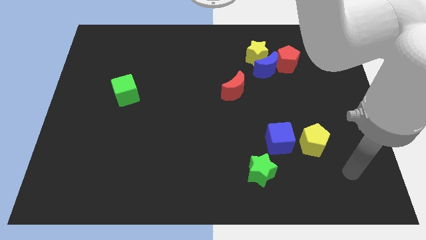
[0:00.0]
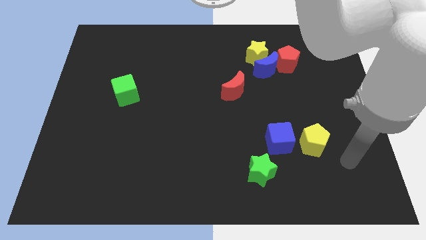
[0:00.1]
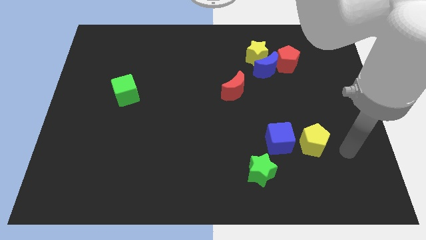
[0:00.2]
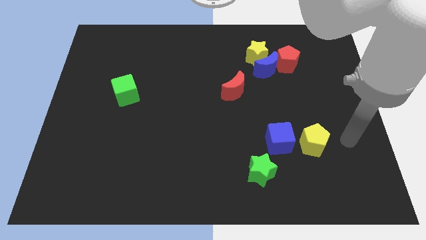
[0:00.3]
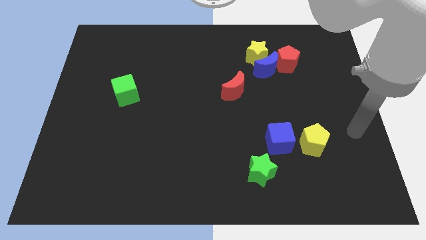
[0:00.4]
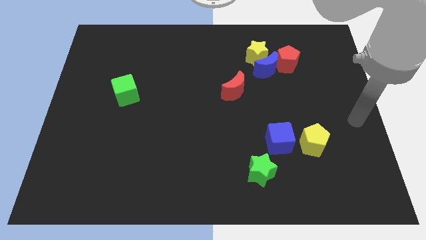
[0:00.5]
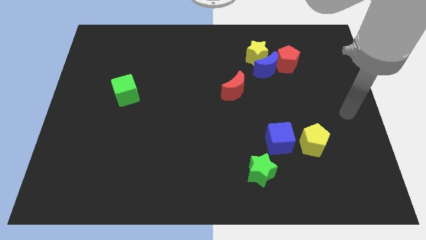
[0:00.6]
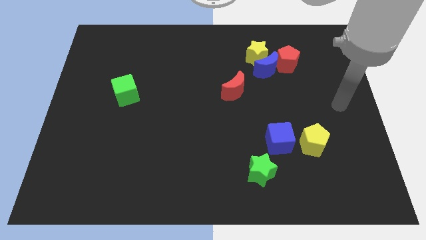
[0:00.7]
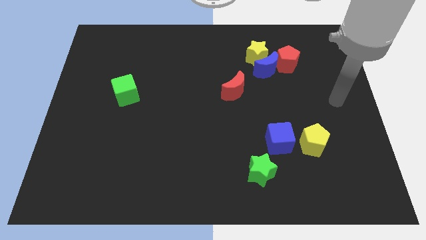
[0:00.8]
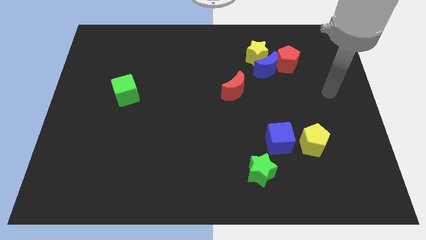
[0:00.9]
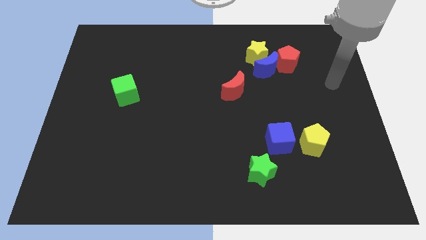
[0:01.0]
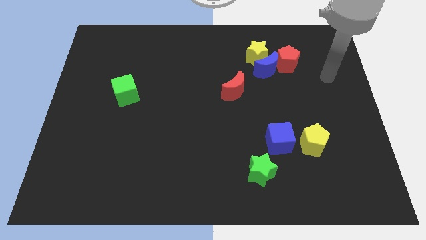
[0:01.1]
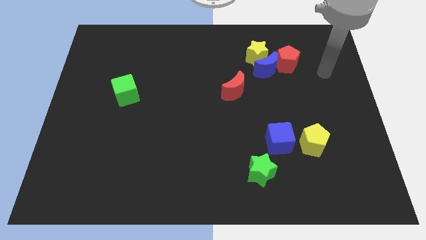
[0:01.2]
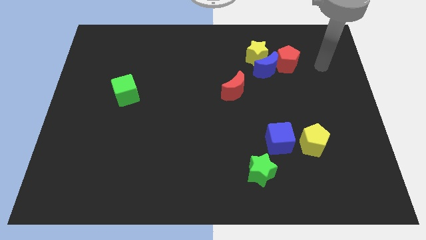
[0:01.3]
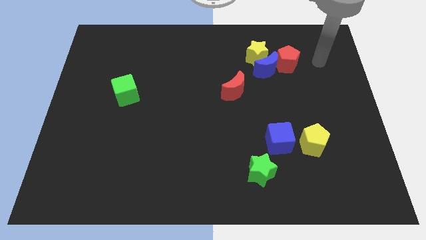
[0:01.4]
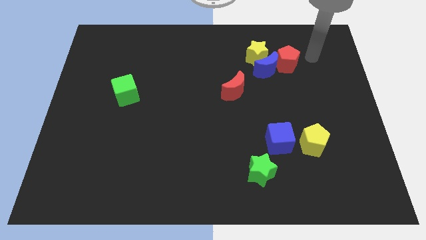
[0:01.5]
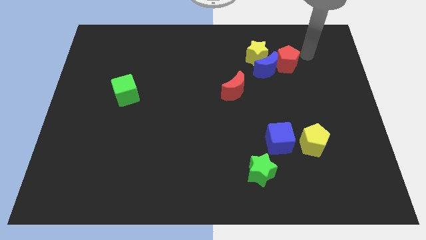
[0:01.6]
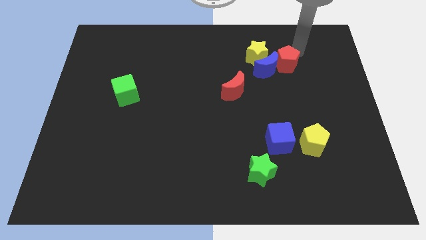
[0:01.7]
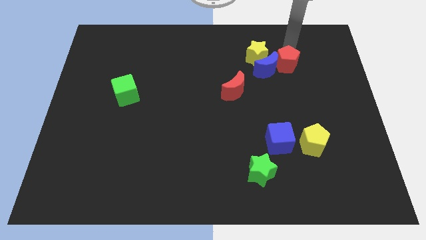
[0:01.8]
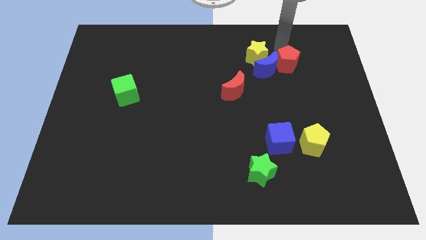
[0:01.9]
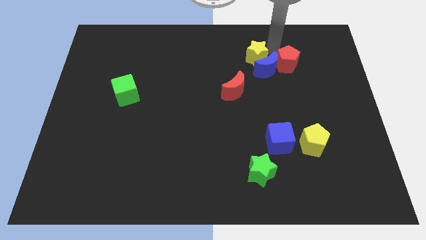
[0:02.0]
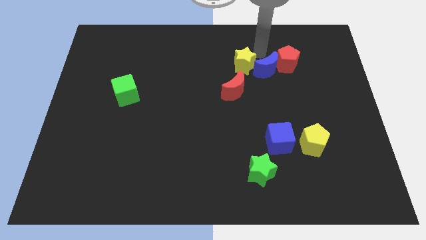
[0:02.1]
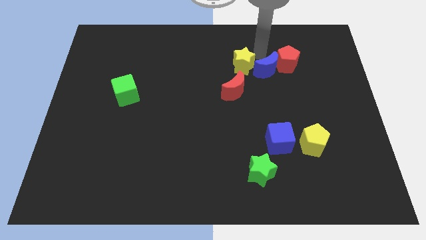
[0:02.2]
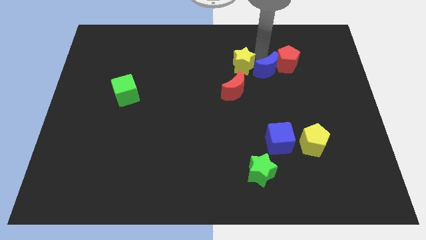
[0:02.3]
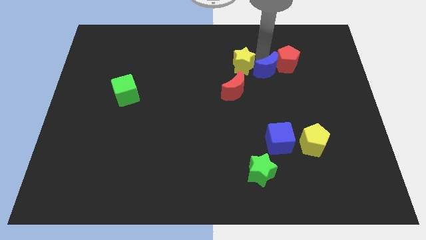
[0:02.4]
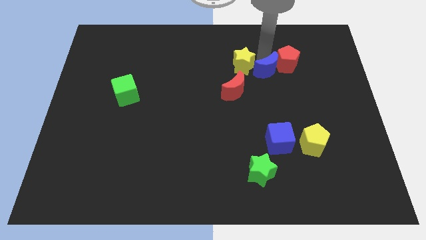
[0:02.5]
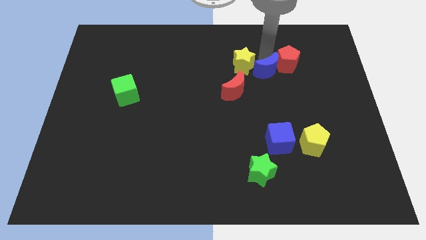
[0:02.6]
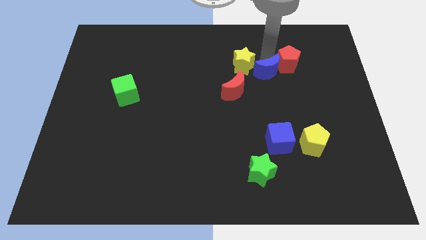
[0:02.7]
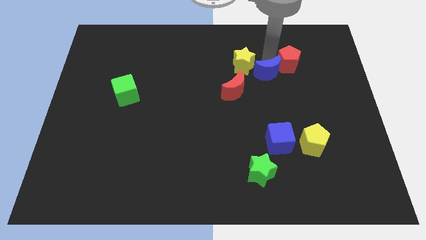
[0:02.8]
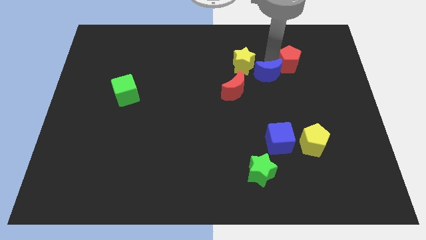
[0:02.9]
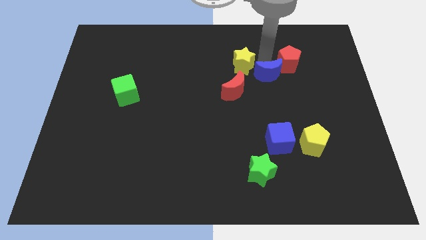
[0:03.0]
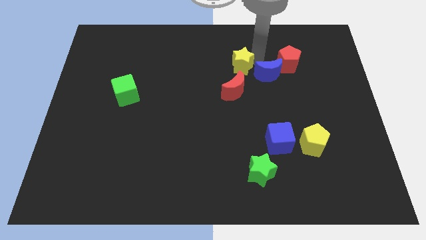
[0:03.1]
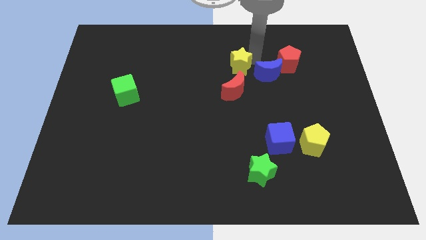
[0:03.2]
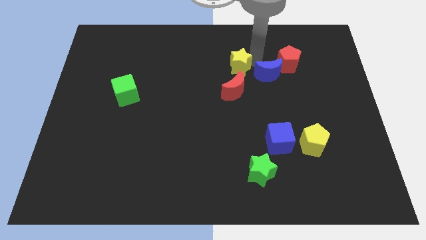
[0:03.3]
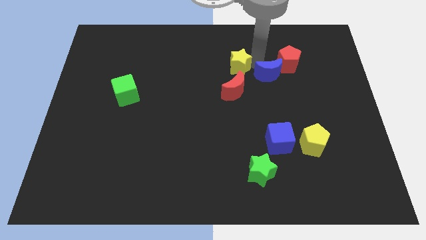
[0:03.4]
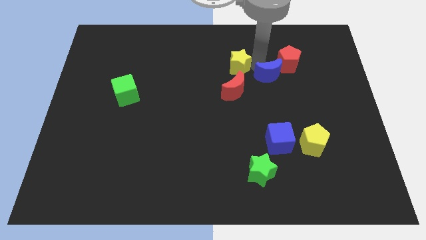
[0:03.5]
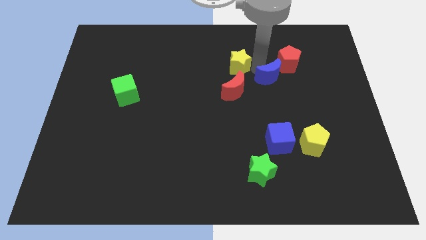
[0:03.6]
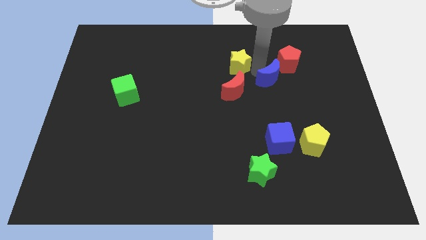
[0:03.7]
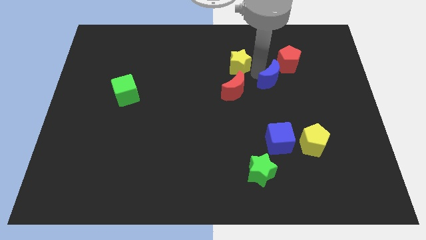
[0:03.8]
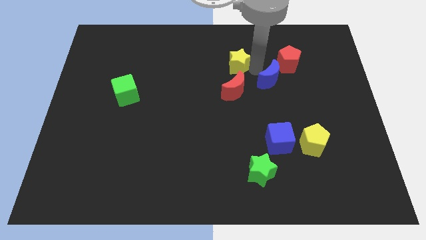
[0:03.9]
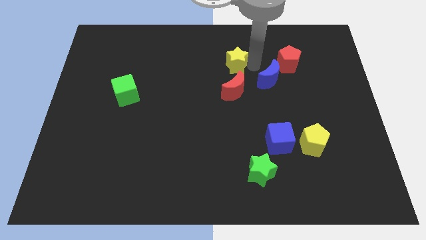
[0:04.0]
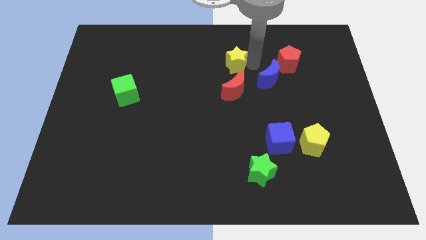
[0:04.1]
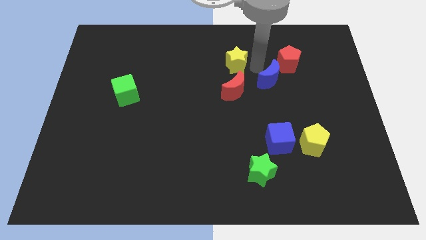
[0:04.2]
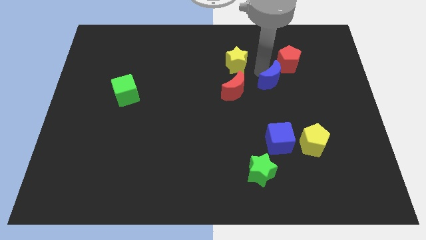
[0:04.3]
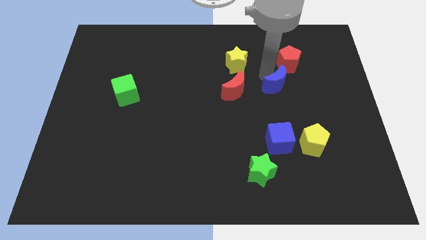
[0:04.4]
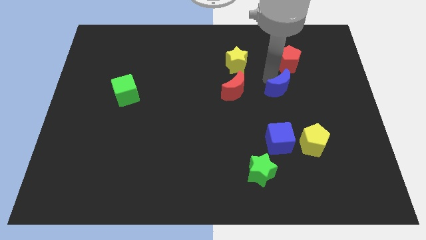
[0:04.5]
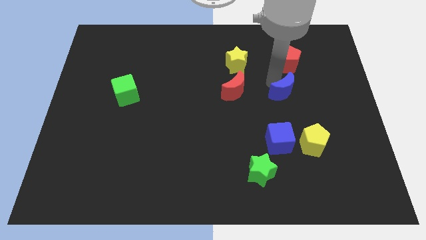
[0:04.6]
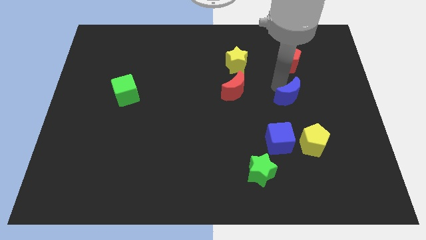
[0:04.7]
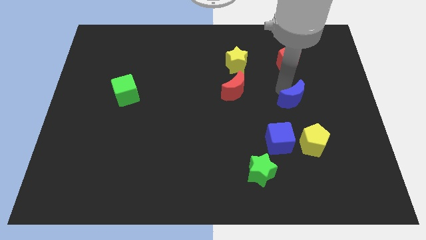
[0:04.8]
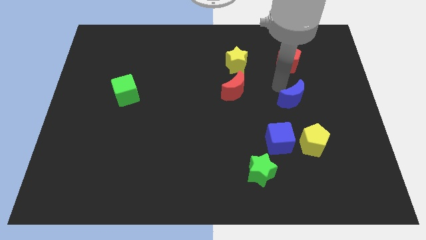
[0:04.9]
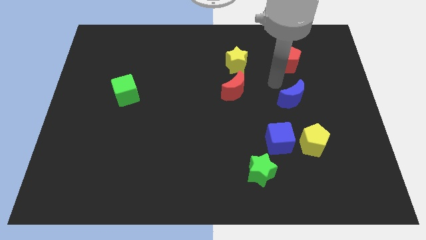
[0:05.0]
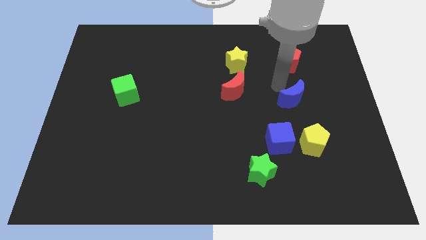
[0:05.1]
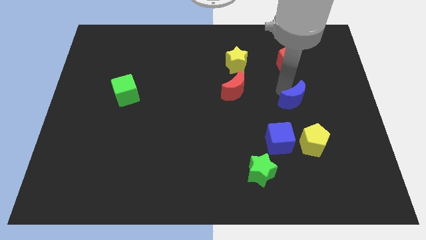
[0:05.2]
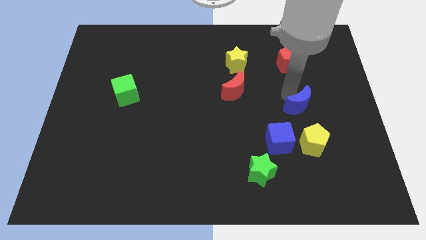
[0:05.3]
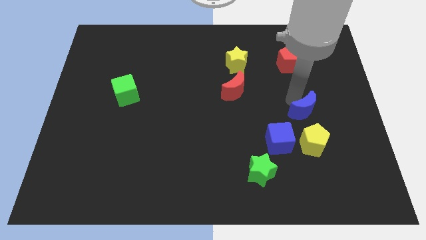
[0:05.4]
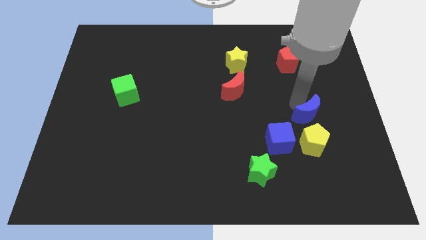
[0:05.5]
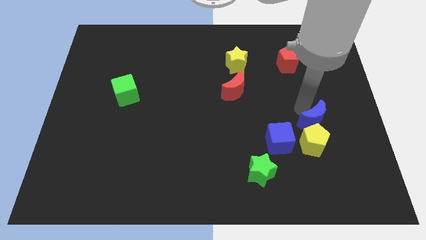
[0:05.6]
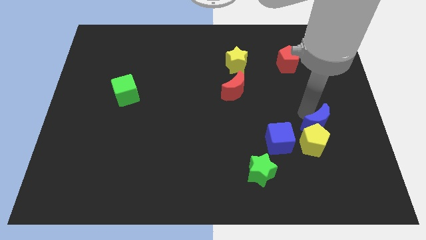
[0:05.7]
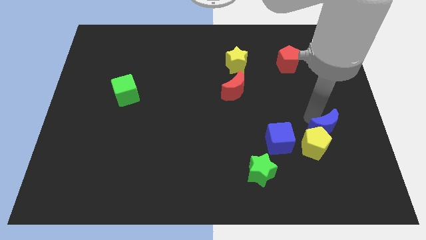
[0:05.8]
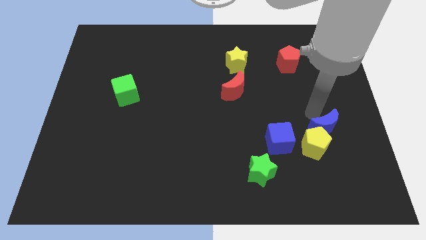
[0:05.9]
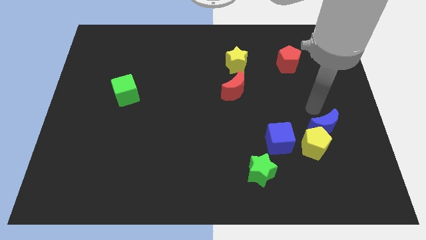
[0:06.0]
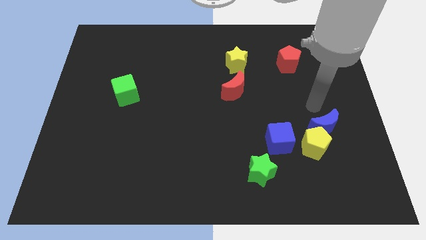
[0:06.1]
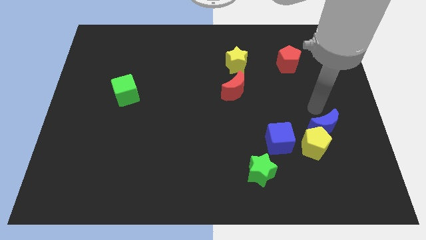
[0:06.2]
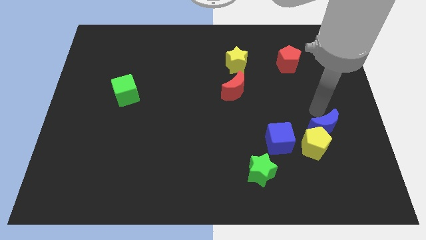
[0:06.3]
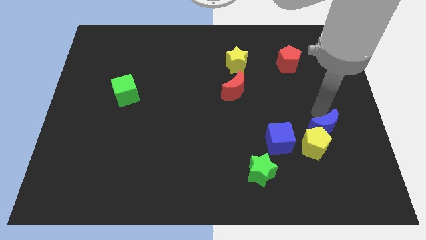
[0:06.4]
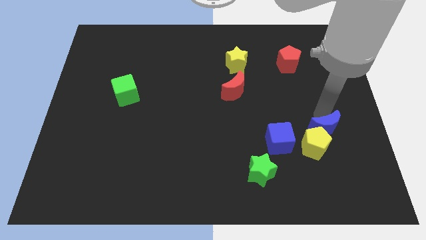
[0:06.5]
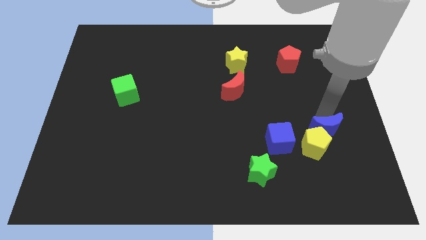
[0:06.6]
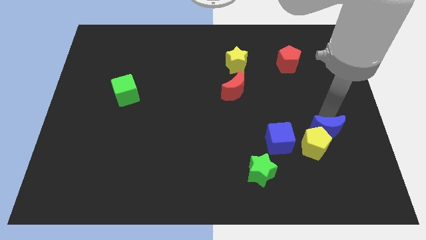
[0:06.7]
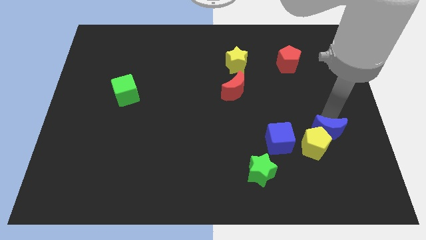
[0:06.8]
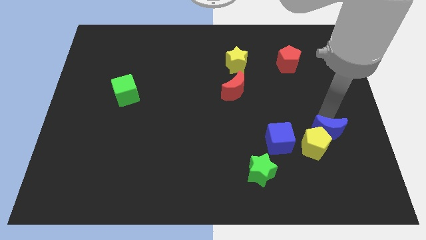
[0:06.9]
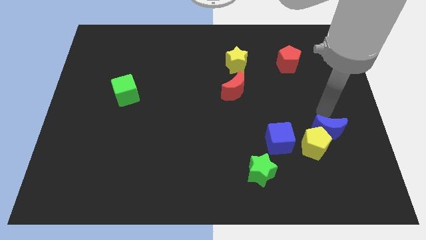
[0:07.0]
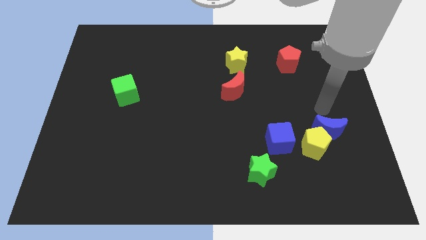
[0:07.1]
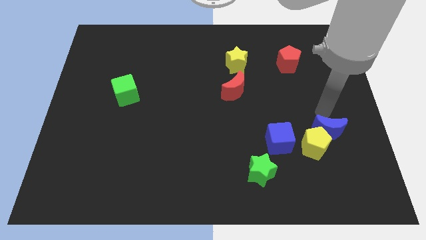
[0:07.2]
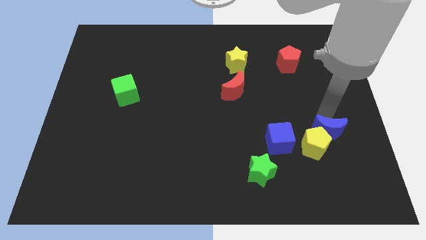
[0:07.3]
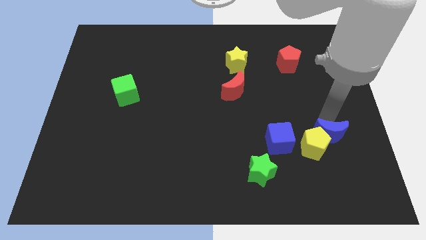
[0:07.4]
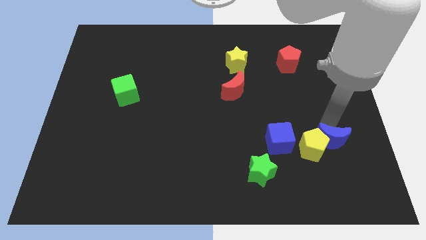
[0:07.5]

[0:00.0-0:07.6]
put the blue moon to the bottom right of the yellow pentagon
